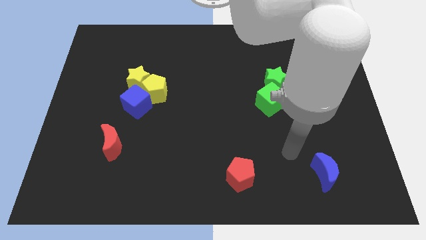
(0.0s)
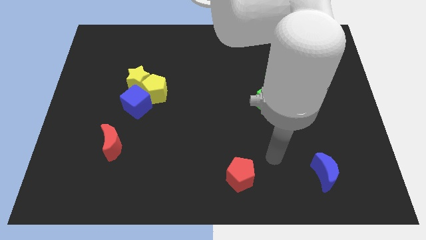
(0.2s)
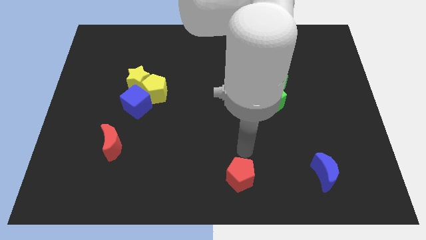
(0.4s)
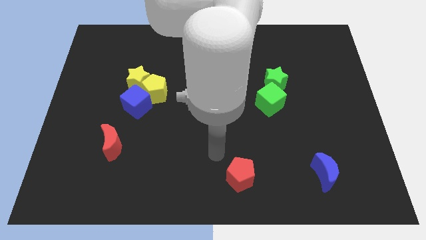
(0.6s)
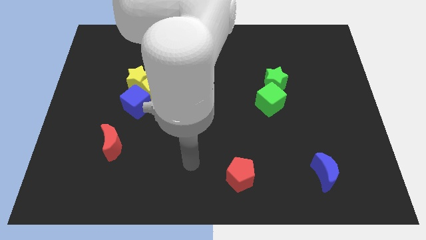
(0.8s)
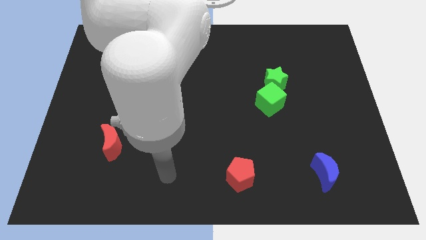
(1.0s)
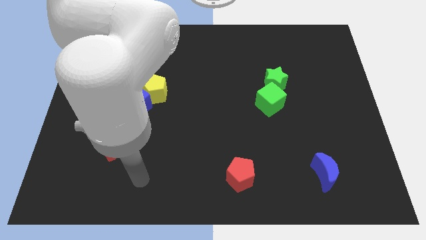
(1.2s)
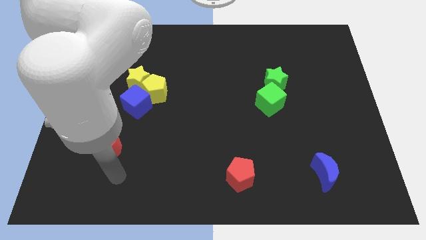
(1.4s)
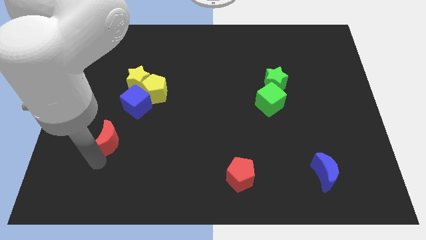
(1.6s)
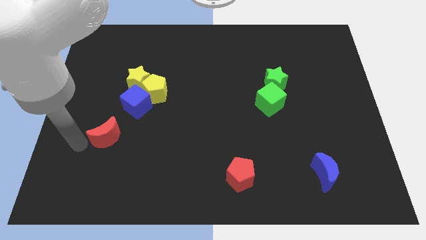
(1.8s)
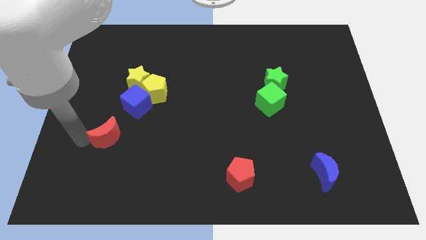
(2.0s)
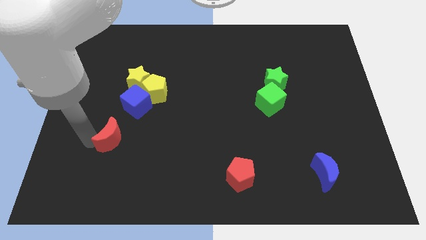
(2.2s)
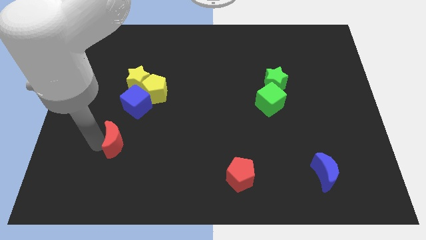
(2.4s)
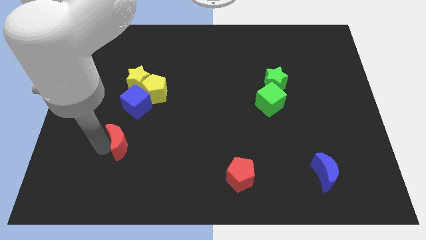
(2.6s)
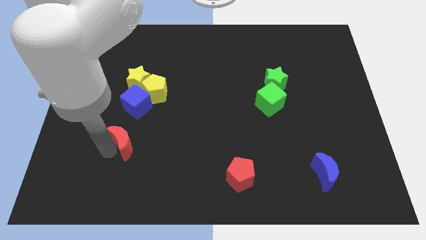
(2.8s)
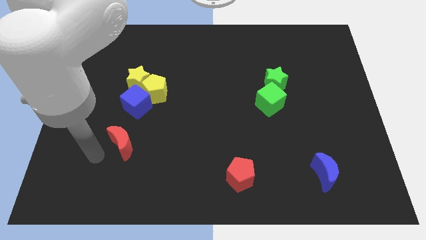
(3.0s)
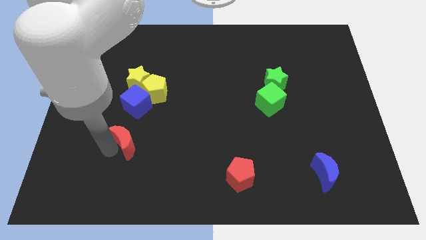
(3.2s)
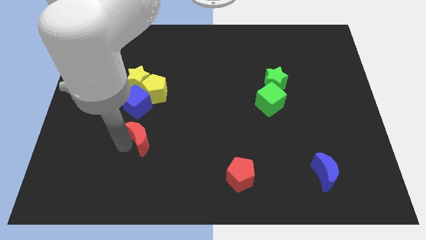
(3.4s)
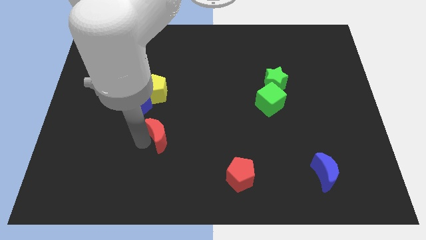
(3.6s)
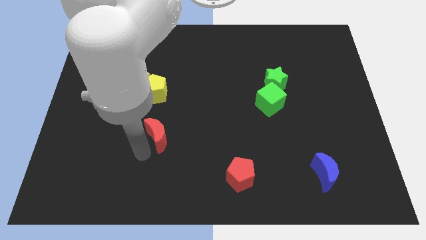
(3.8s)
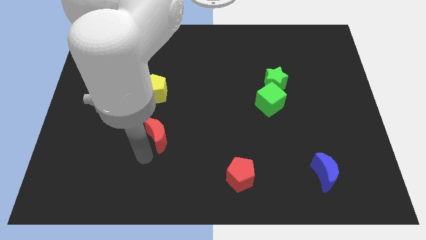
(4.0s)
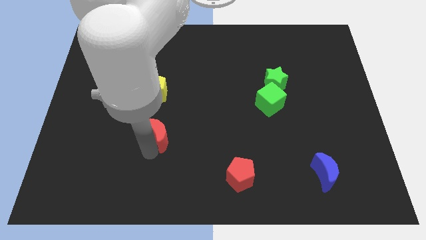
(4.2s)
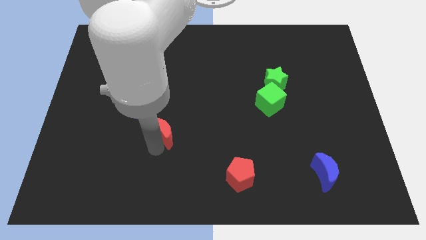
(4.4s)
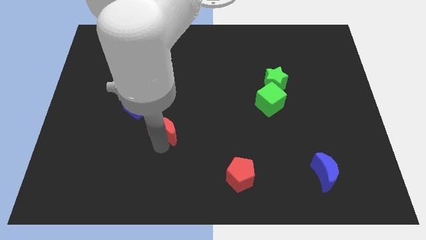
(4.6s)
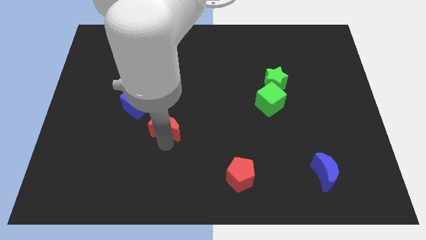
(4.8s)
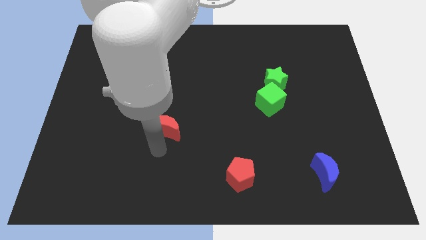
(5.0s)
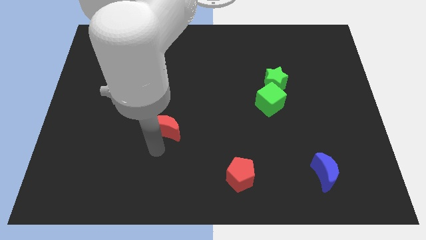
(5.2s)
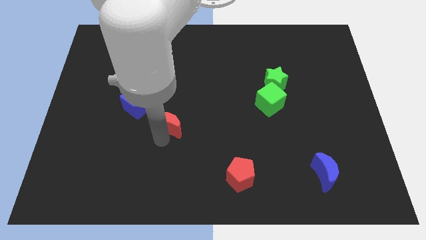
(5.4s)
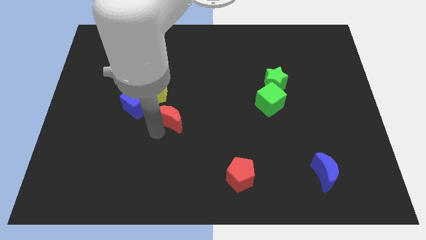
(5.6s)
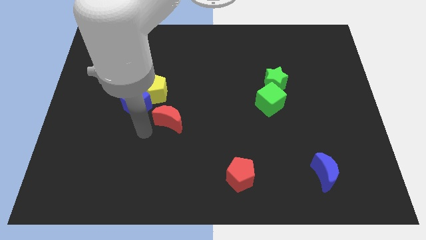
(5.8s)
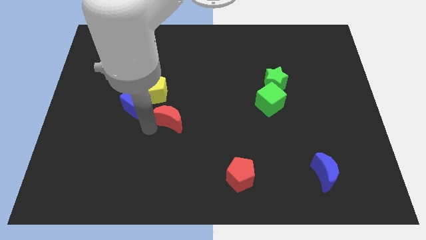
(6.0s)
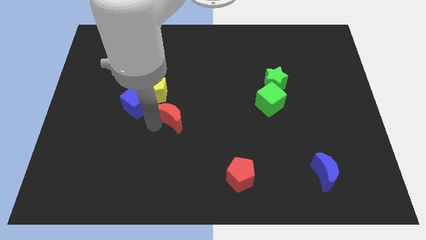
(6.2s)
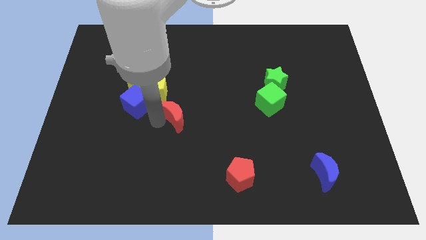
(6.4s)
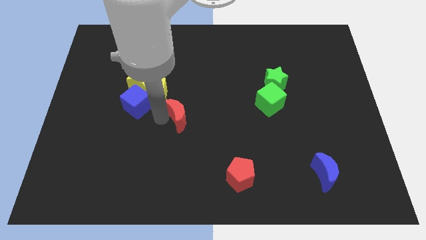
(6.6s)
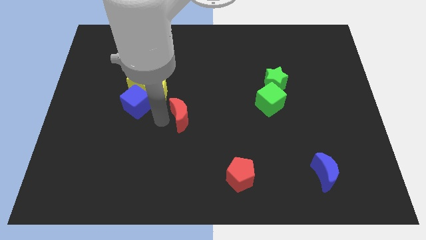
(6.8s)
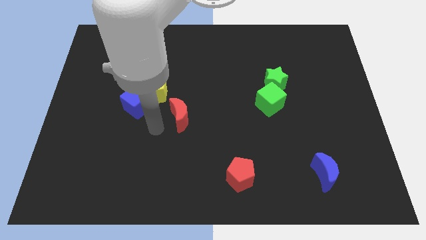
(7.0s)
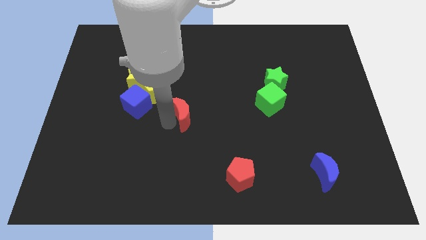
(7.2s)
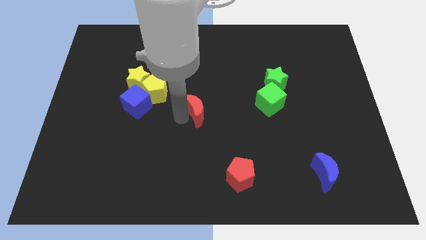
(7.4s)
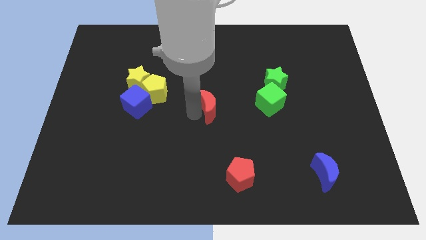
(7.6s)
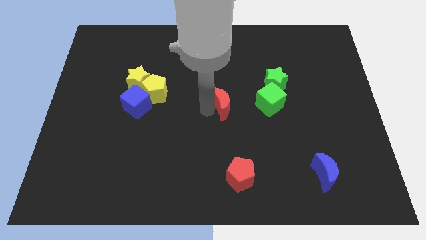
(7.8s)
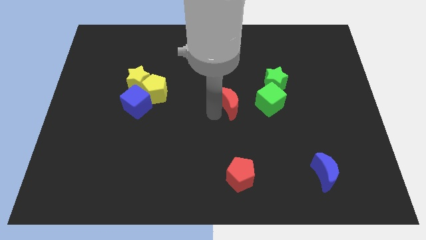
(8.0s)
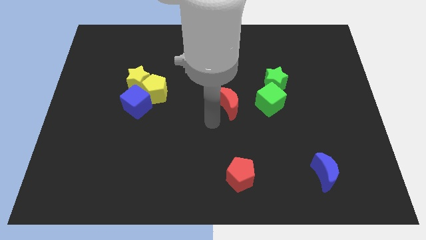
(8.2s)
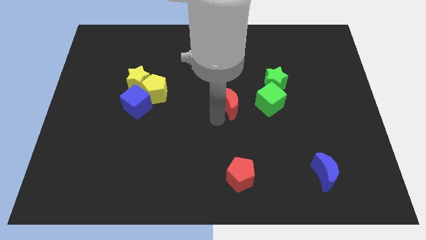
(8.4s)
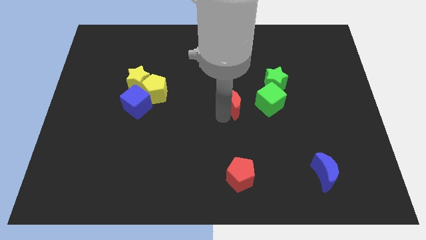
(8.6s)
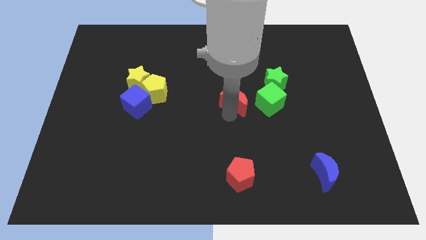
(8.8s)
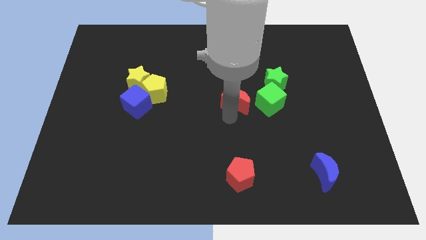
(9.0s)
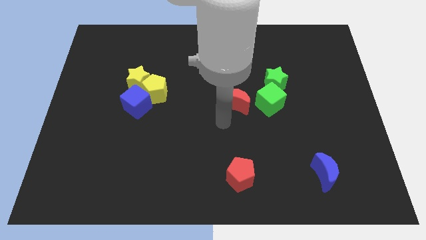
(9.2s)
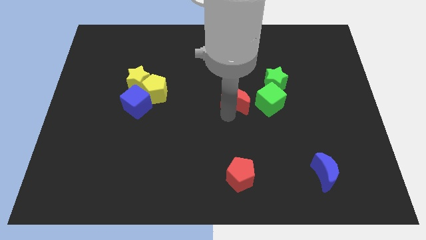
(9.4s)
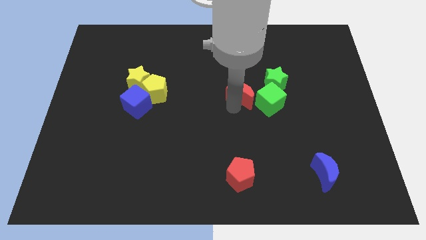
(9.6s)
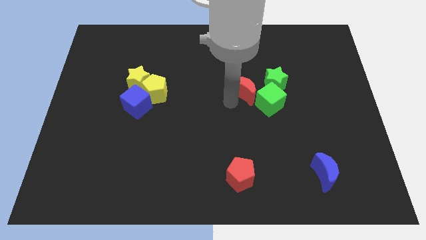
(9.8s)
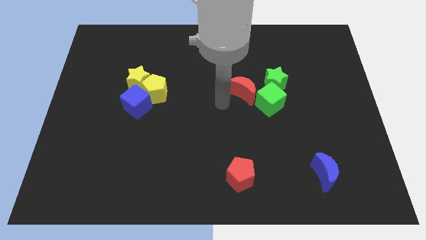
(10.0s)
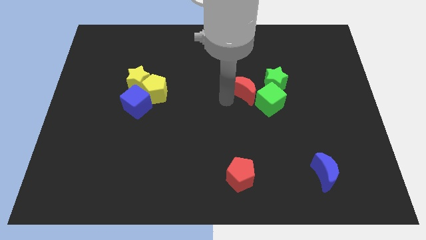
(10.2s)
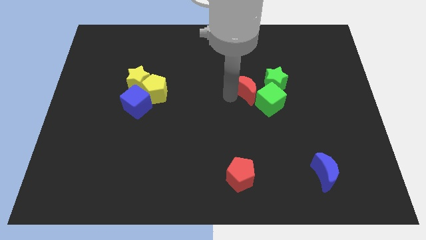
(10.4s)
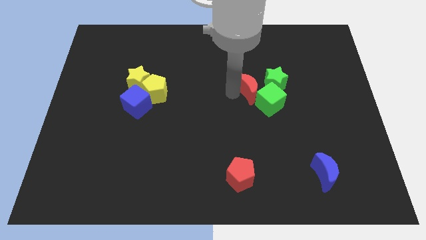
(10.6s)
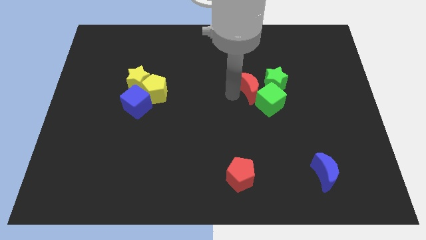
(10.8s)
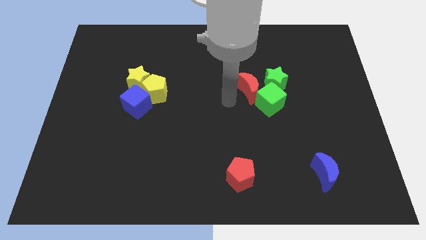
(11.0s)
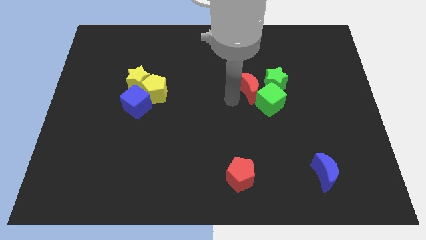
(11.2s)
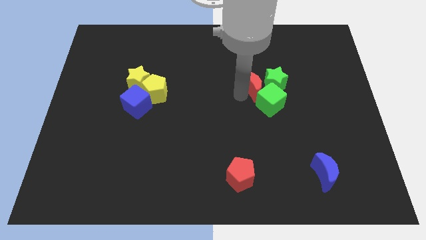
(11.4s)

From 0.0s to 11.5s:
slide the red moon next to the green star

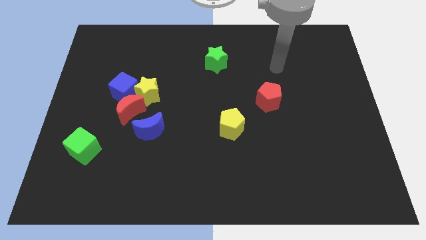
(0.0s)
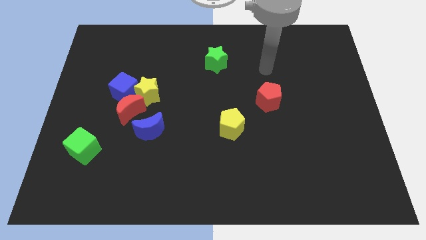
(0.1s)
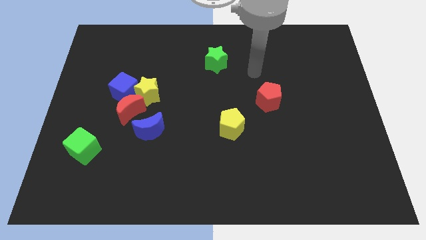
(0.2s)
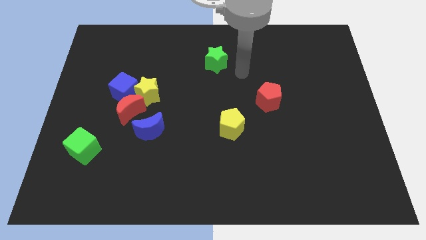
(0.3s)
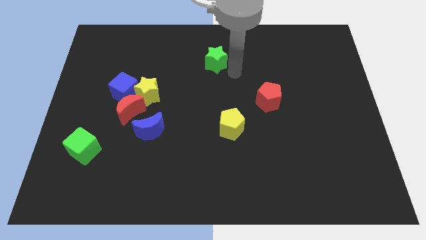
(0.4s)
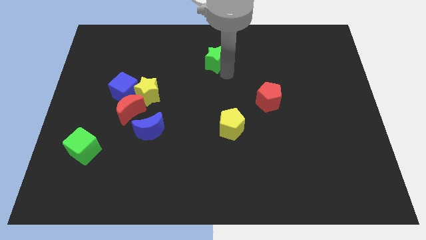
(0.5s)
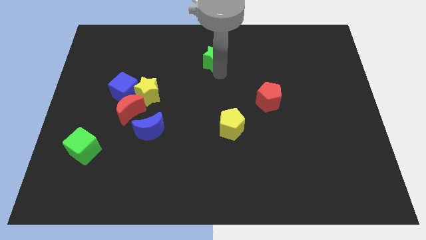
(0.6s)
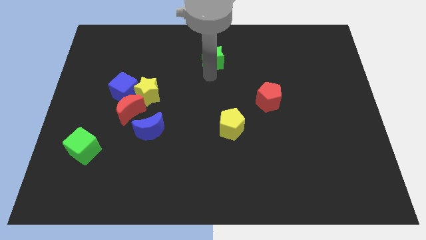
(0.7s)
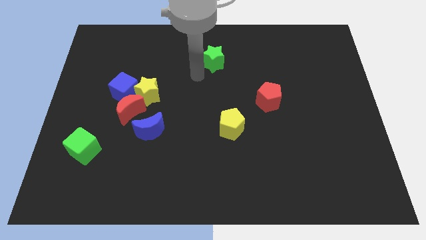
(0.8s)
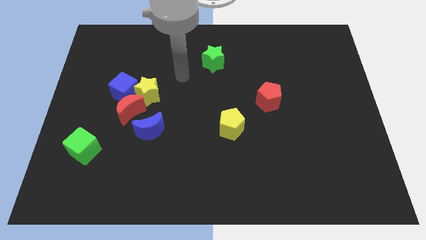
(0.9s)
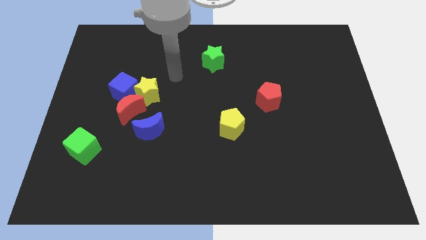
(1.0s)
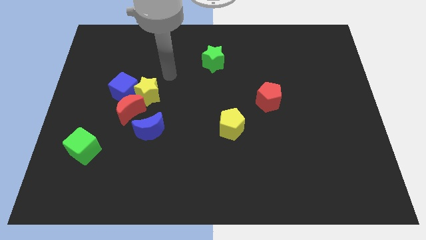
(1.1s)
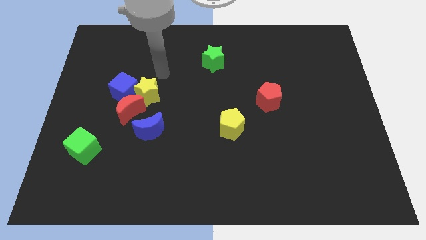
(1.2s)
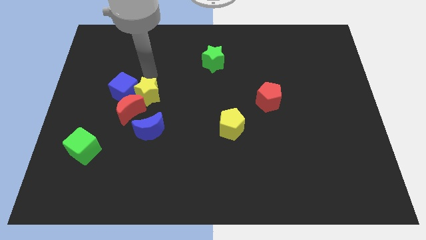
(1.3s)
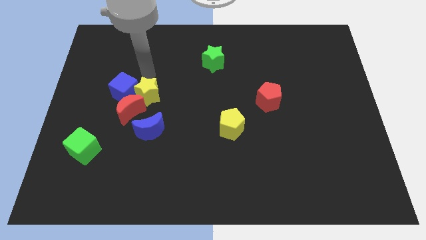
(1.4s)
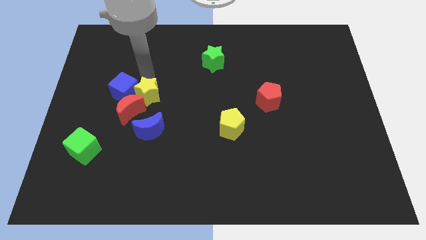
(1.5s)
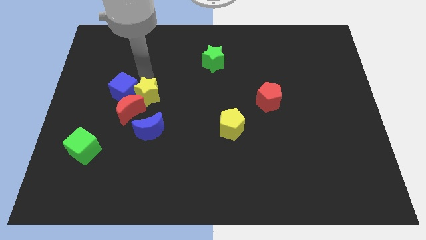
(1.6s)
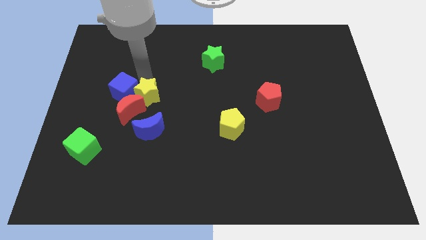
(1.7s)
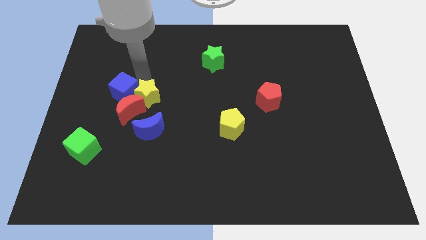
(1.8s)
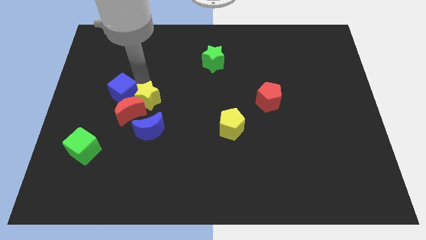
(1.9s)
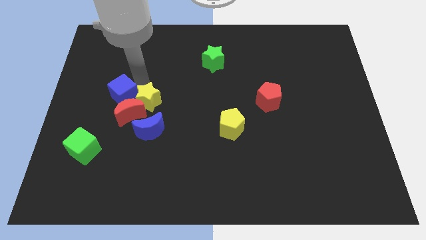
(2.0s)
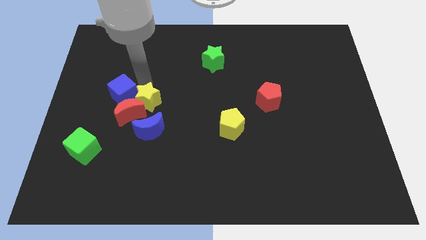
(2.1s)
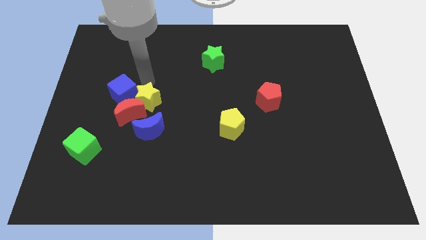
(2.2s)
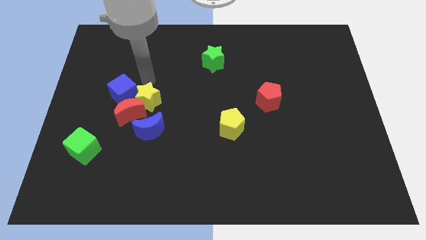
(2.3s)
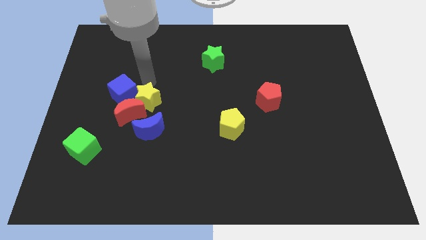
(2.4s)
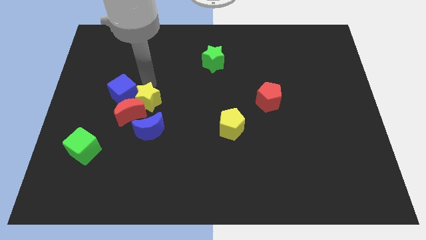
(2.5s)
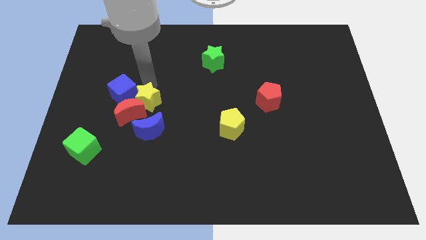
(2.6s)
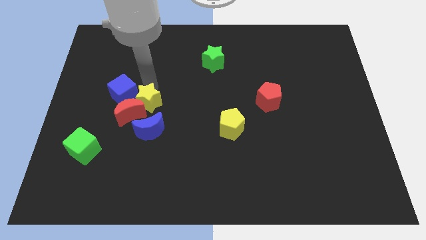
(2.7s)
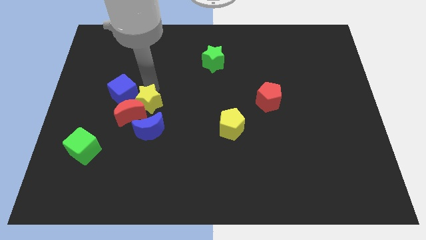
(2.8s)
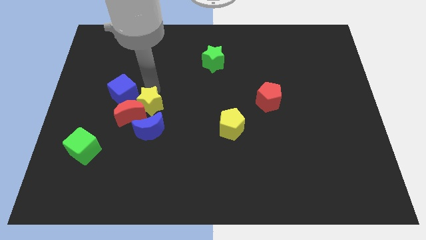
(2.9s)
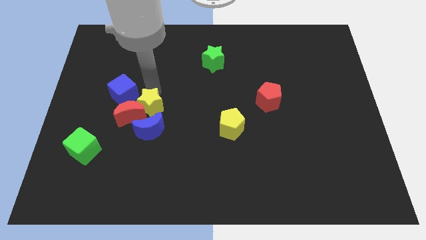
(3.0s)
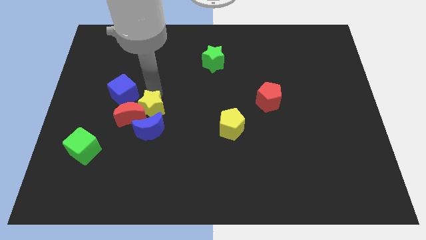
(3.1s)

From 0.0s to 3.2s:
slide the yellow star towards the blue moon
